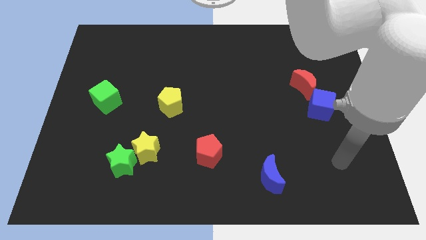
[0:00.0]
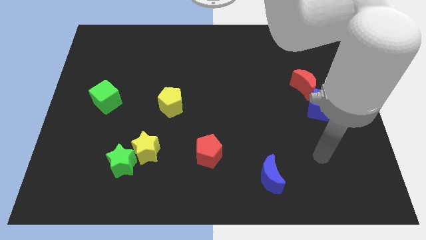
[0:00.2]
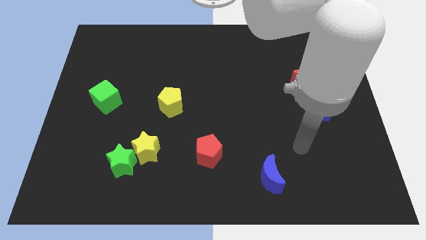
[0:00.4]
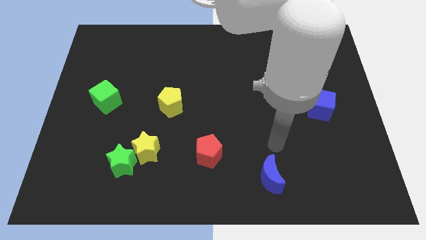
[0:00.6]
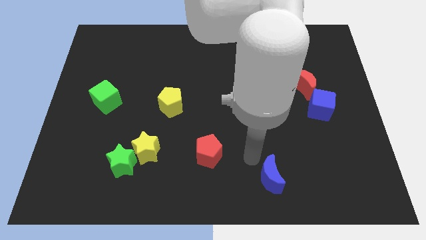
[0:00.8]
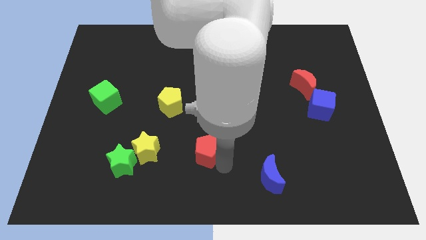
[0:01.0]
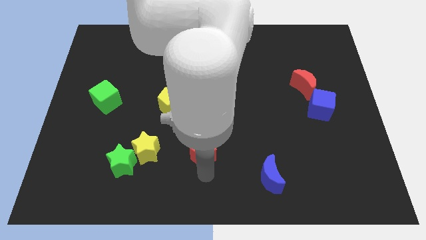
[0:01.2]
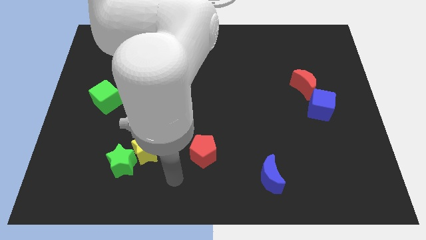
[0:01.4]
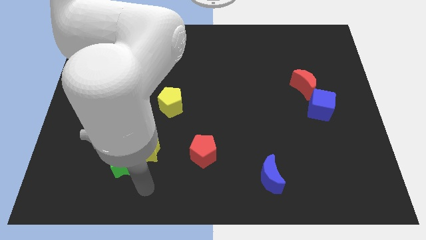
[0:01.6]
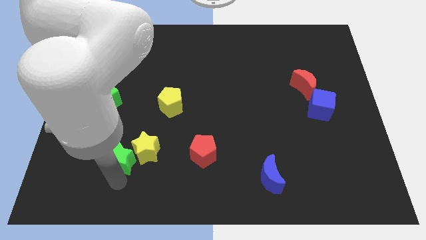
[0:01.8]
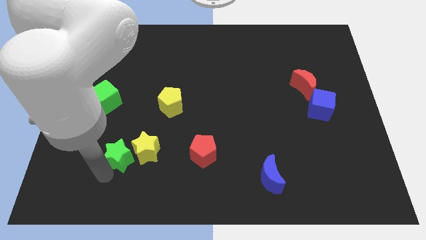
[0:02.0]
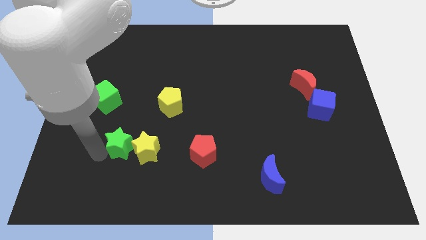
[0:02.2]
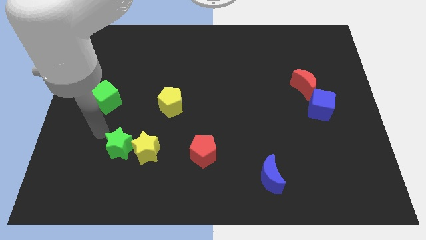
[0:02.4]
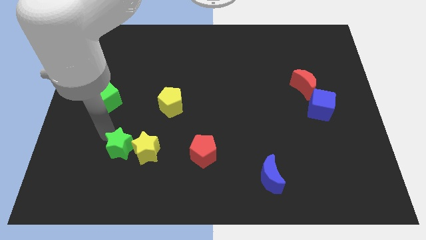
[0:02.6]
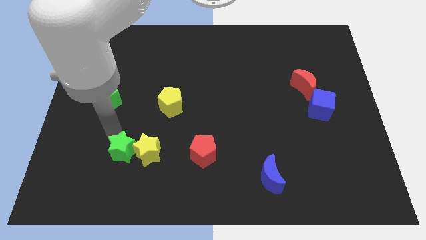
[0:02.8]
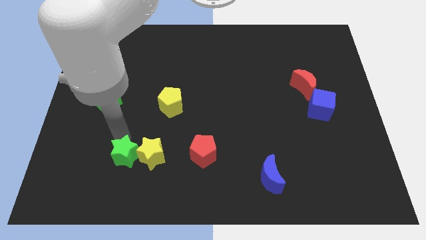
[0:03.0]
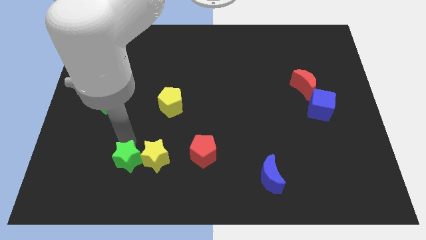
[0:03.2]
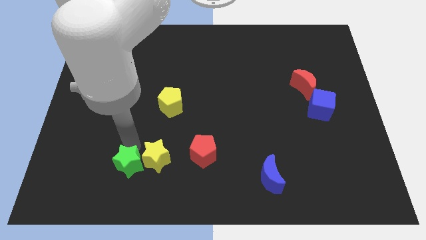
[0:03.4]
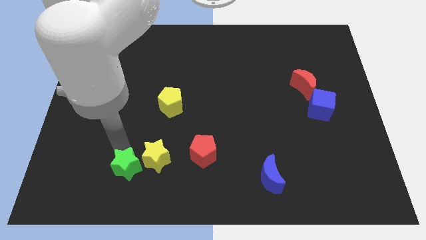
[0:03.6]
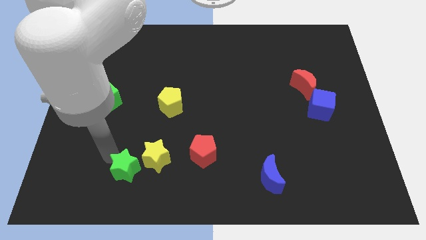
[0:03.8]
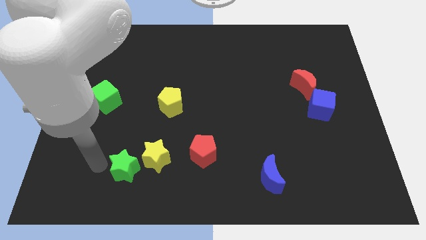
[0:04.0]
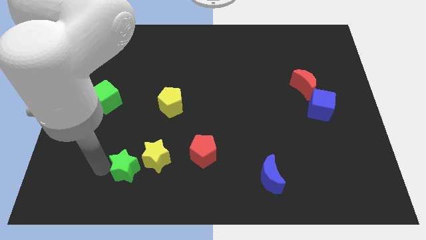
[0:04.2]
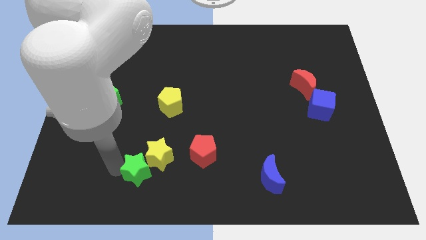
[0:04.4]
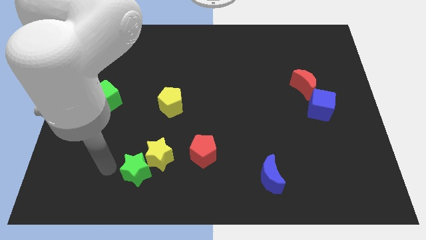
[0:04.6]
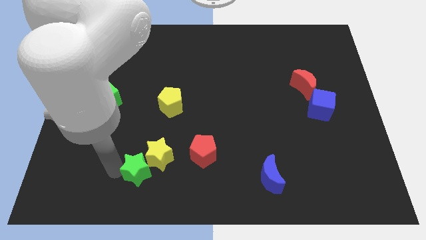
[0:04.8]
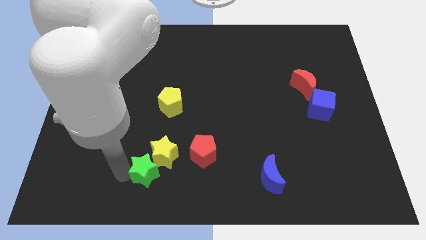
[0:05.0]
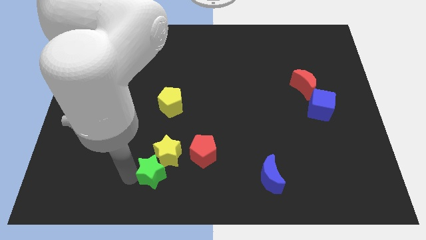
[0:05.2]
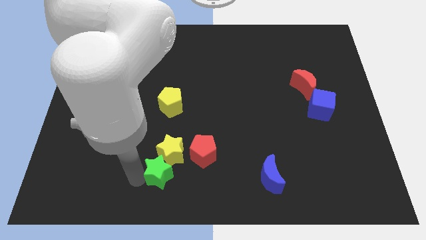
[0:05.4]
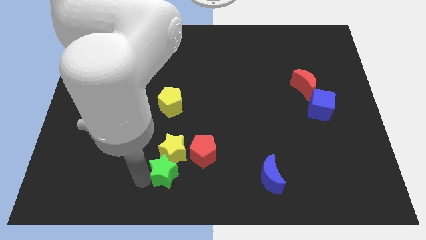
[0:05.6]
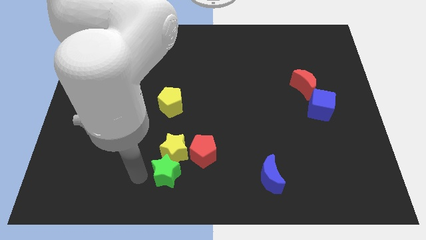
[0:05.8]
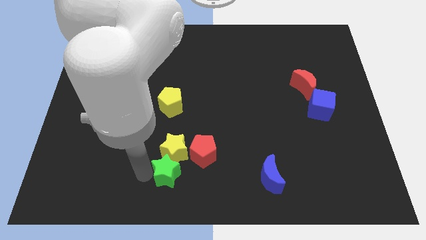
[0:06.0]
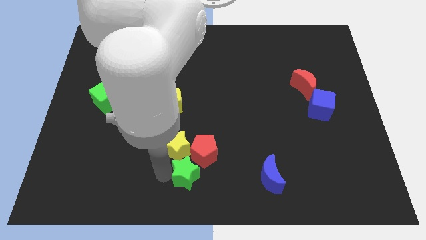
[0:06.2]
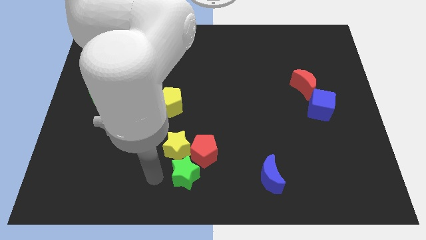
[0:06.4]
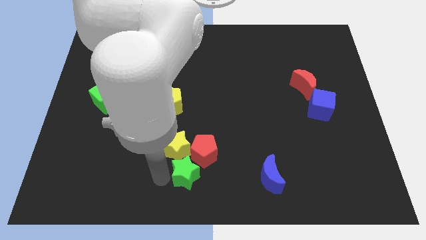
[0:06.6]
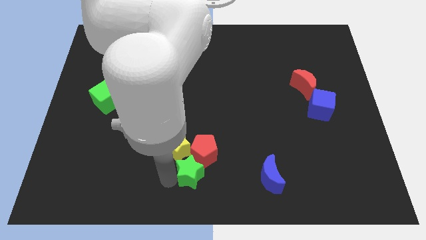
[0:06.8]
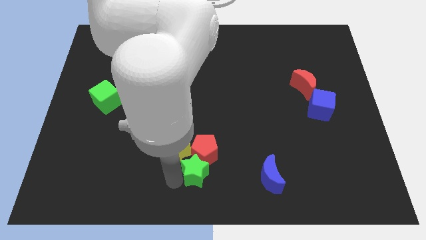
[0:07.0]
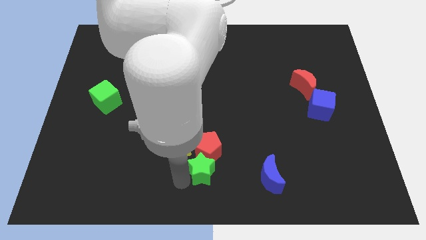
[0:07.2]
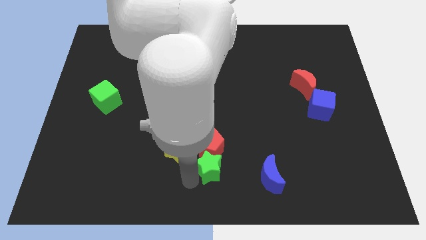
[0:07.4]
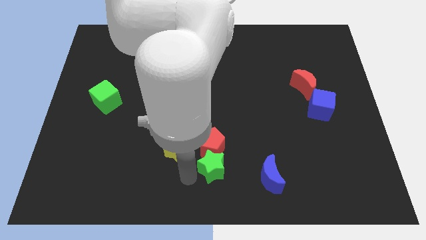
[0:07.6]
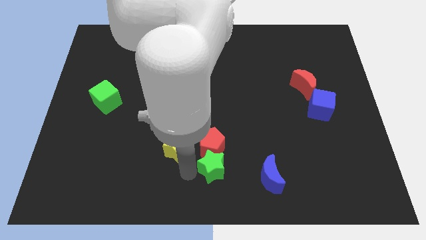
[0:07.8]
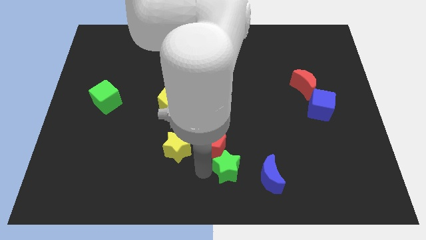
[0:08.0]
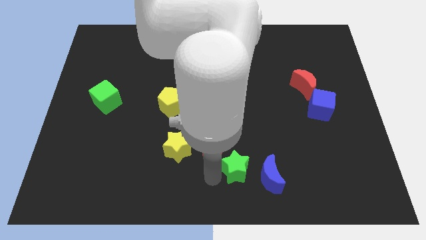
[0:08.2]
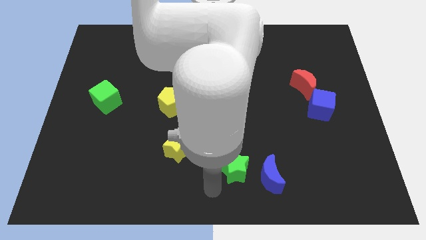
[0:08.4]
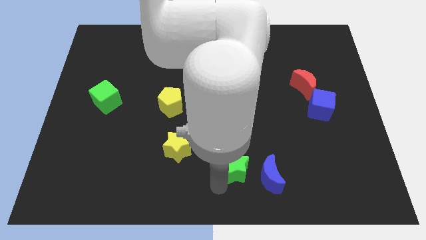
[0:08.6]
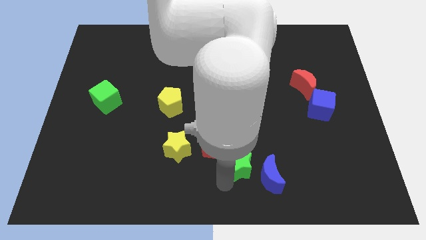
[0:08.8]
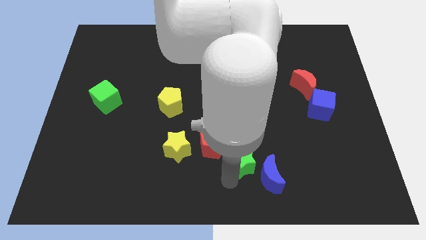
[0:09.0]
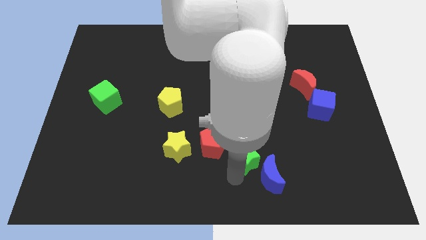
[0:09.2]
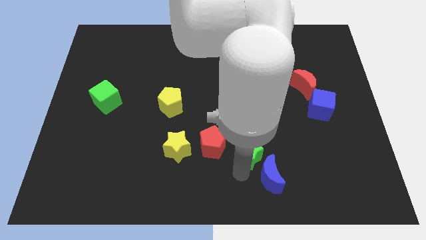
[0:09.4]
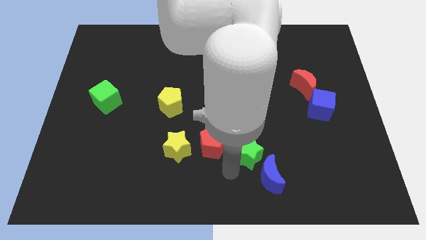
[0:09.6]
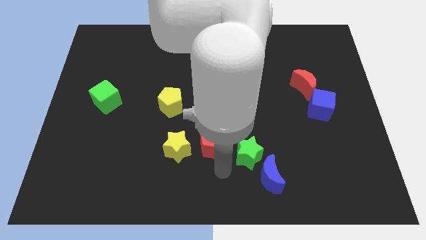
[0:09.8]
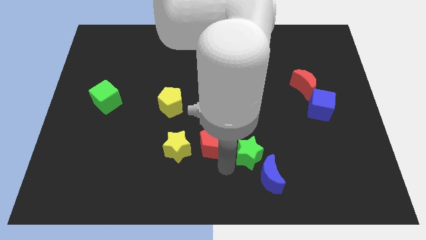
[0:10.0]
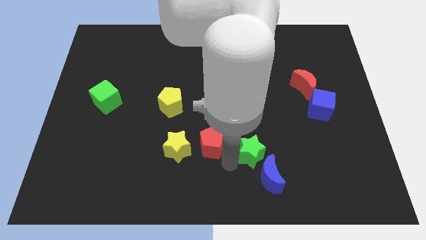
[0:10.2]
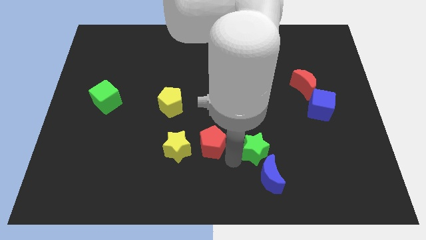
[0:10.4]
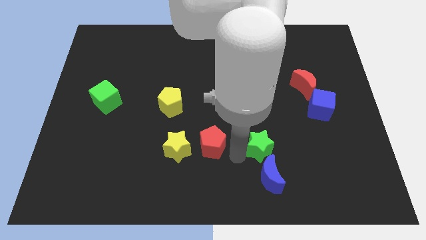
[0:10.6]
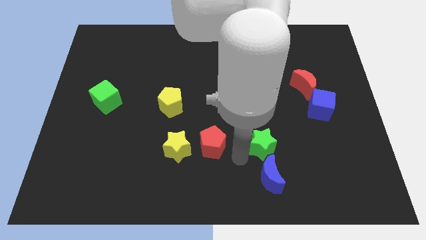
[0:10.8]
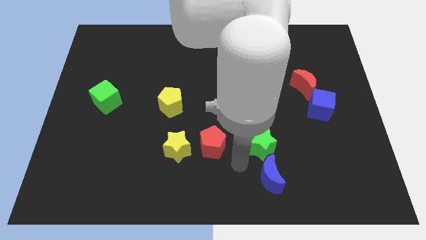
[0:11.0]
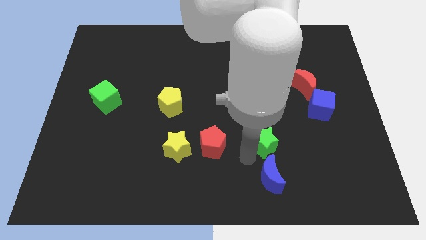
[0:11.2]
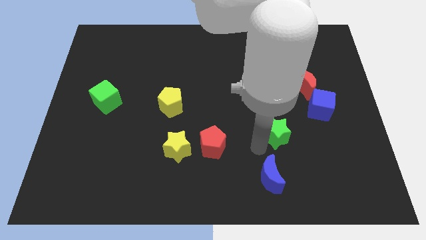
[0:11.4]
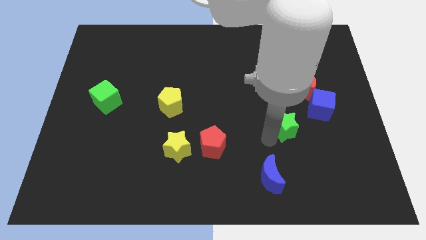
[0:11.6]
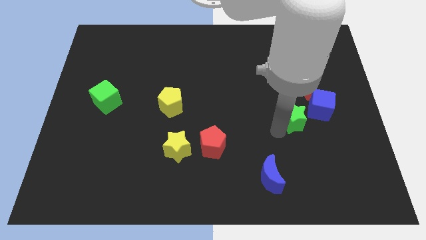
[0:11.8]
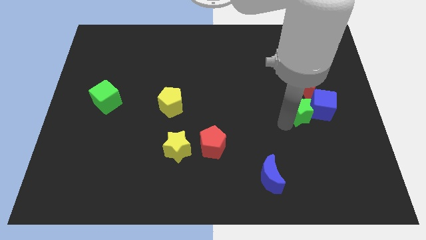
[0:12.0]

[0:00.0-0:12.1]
push the green star towards the blue cube

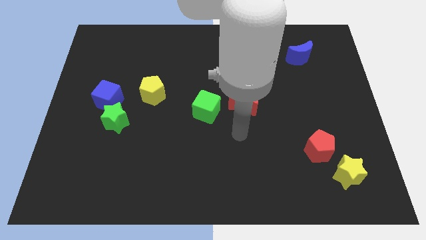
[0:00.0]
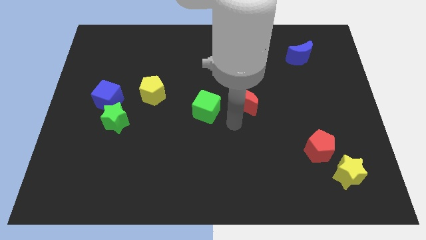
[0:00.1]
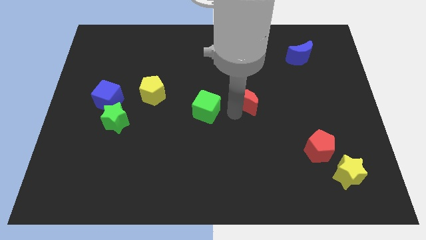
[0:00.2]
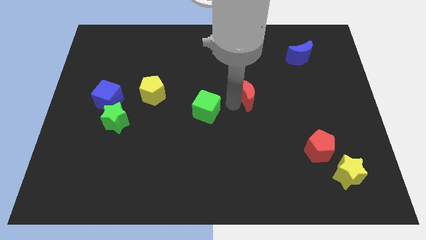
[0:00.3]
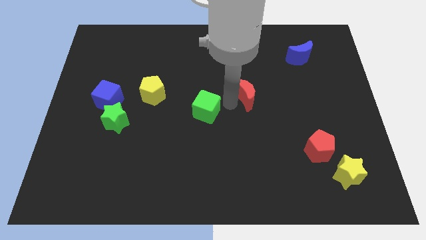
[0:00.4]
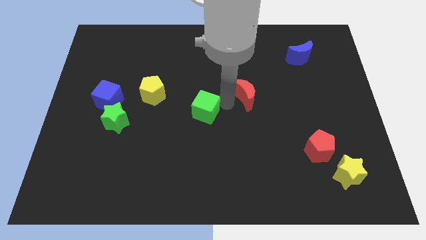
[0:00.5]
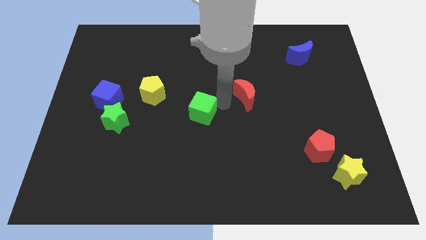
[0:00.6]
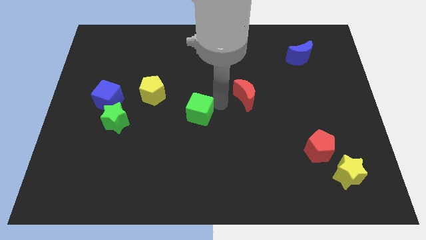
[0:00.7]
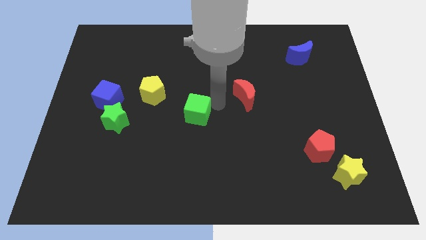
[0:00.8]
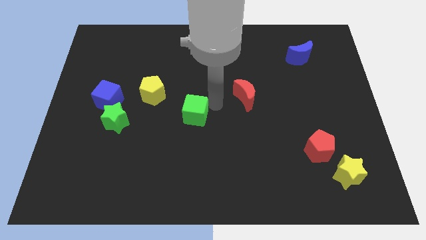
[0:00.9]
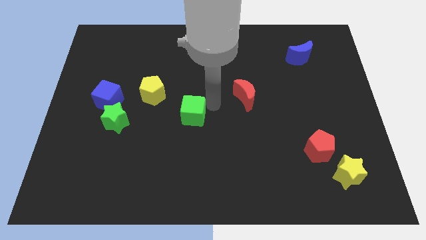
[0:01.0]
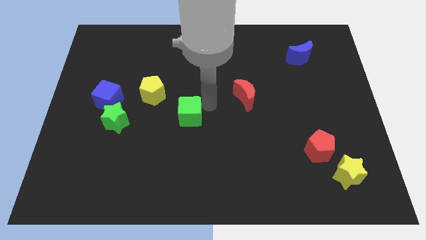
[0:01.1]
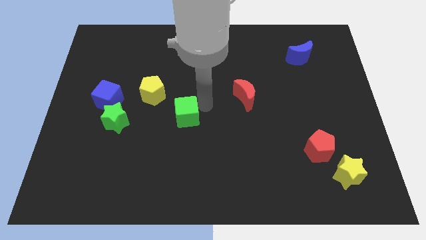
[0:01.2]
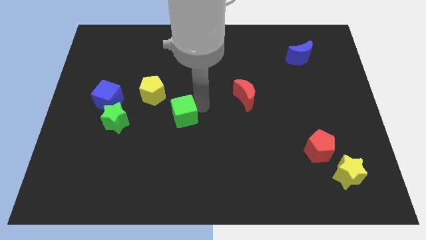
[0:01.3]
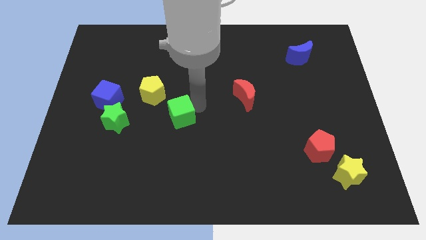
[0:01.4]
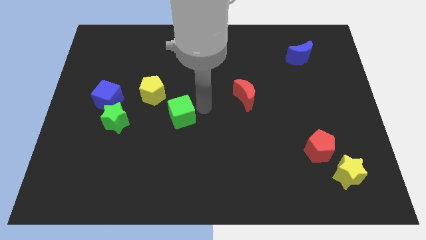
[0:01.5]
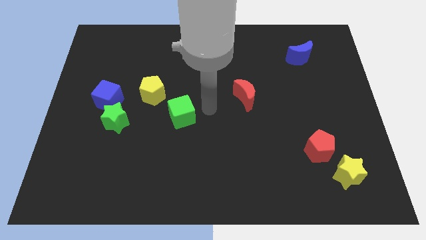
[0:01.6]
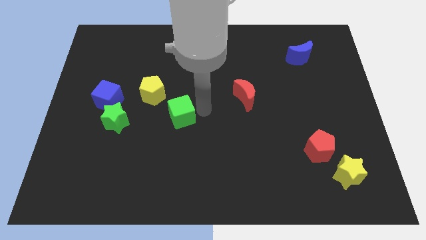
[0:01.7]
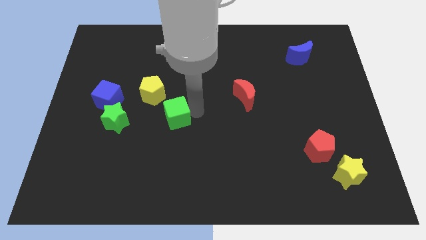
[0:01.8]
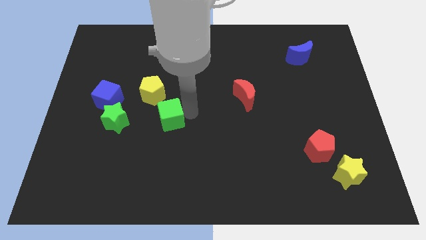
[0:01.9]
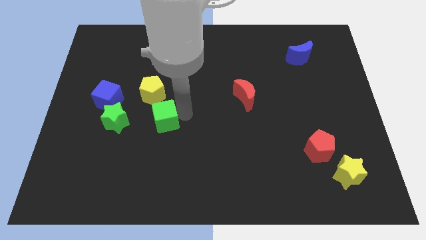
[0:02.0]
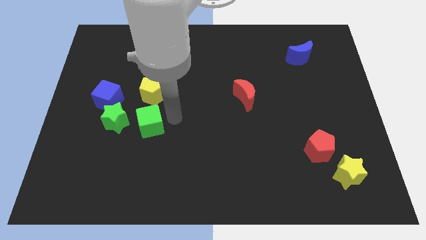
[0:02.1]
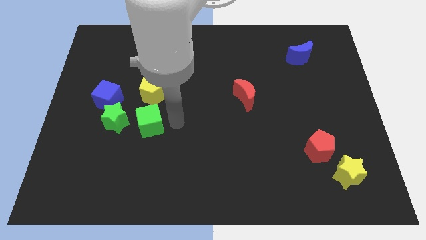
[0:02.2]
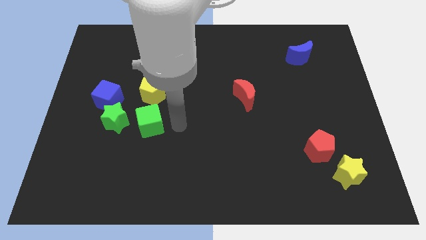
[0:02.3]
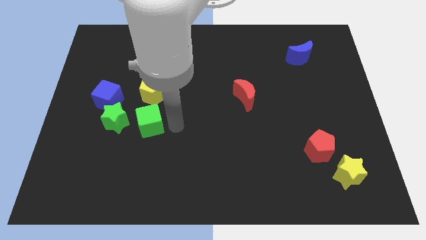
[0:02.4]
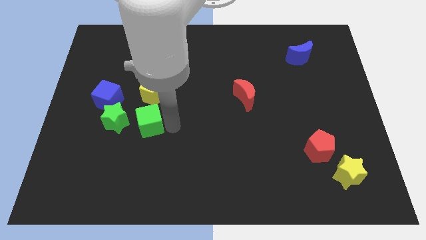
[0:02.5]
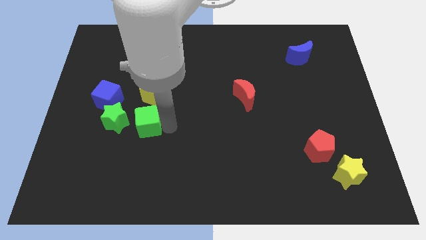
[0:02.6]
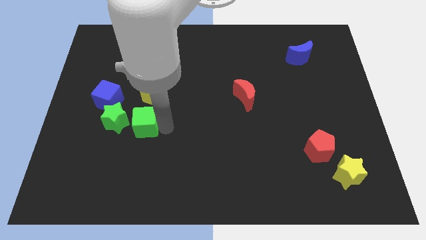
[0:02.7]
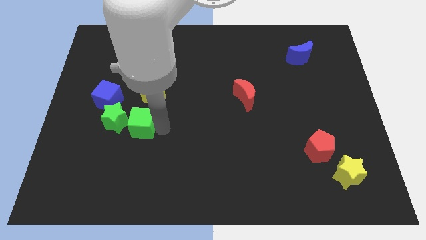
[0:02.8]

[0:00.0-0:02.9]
put the green cube next to the green star
